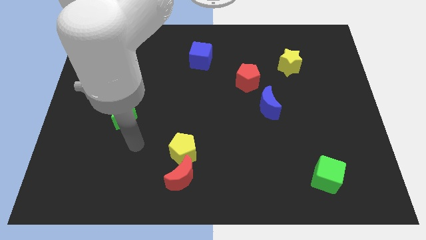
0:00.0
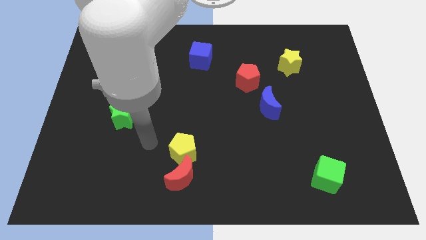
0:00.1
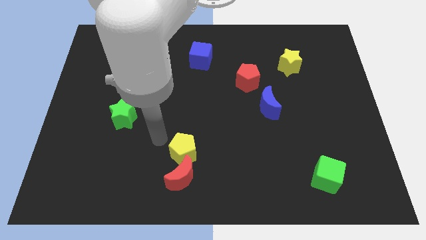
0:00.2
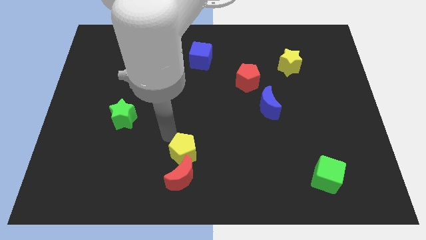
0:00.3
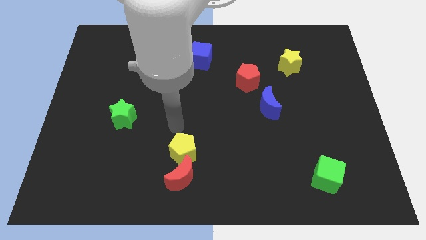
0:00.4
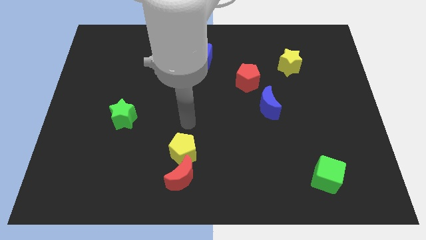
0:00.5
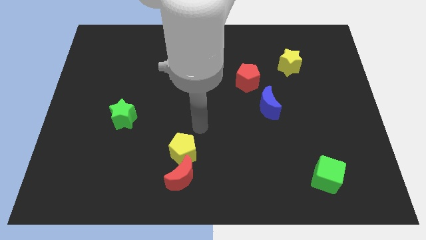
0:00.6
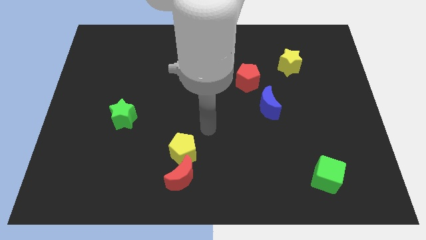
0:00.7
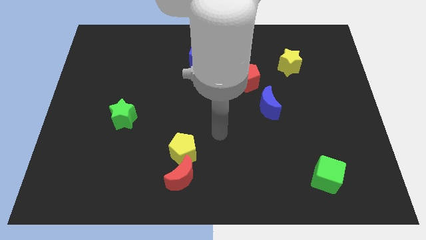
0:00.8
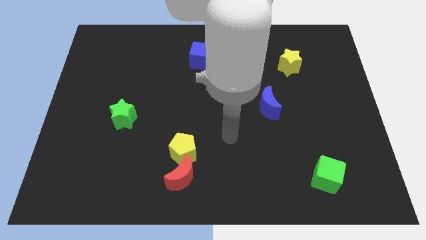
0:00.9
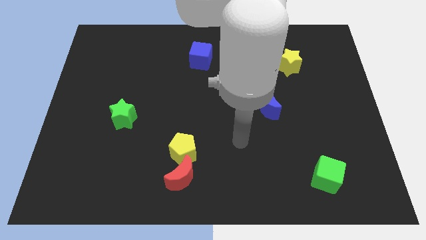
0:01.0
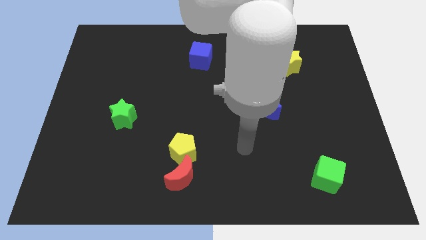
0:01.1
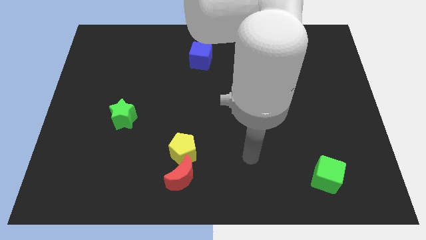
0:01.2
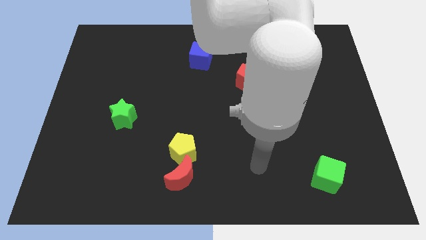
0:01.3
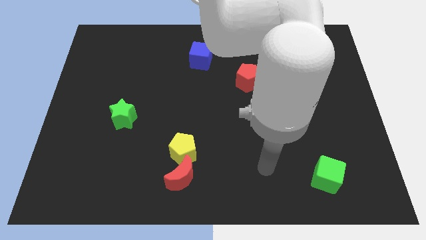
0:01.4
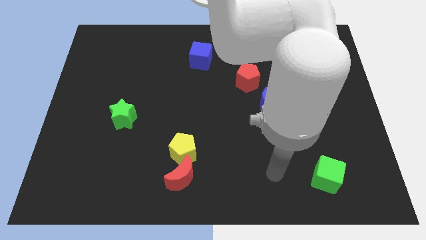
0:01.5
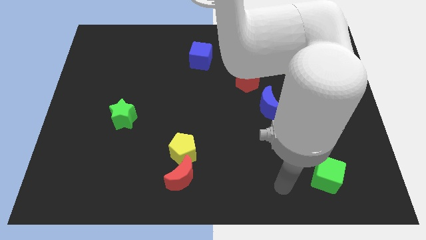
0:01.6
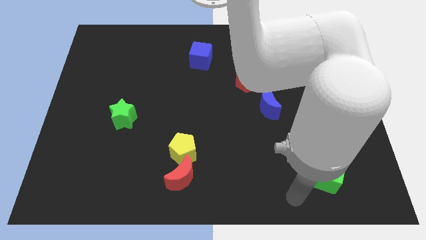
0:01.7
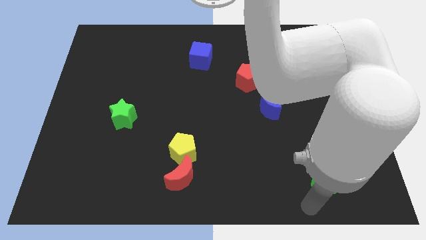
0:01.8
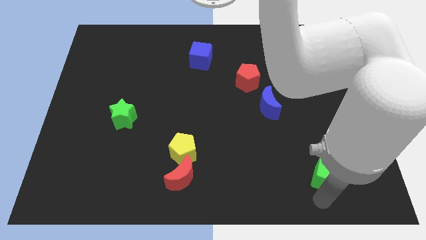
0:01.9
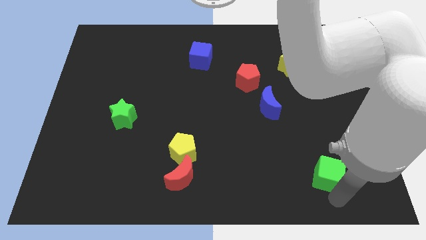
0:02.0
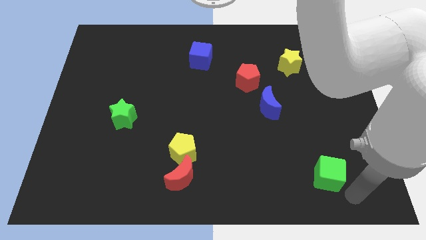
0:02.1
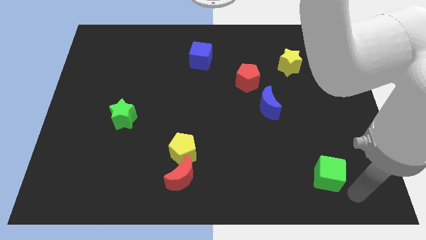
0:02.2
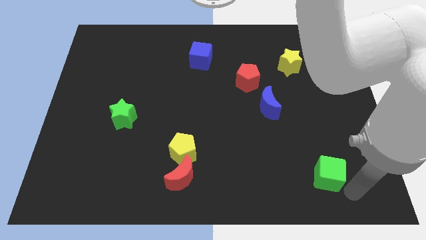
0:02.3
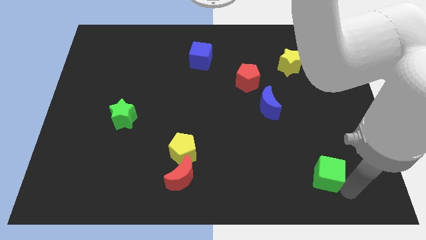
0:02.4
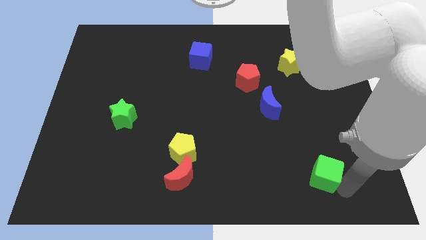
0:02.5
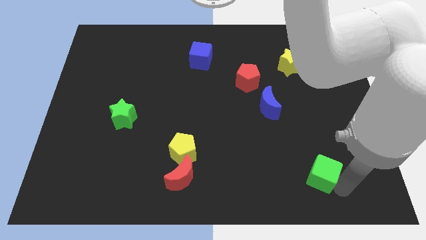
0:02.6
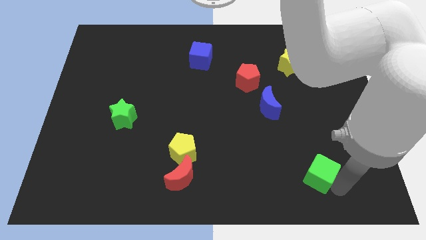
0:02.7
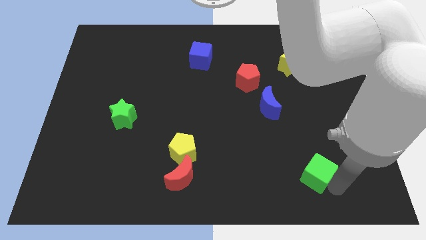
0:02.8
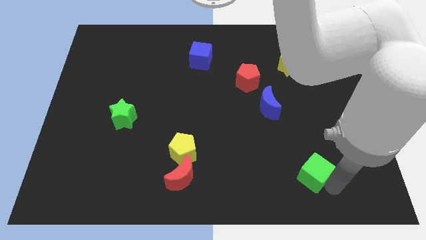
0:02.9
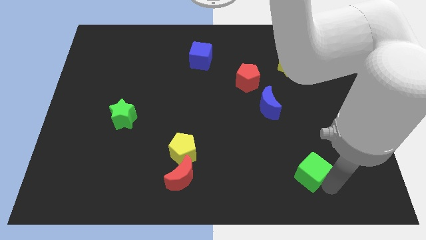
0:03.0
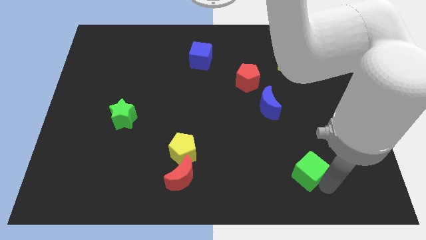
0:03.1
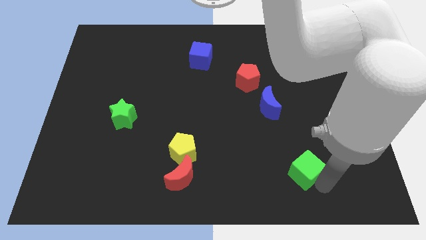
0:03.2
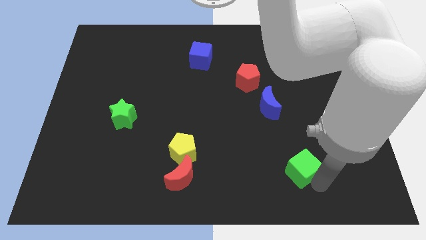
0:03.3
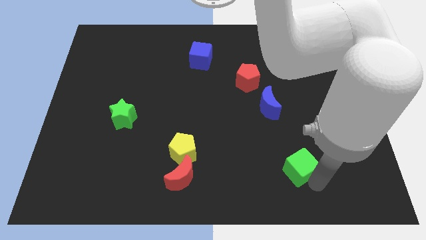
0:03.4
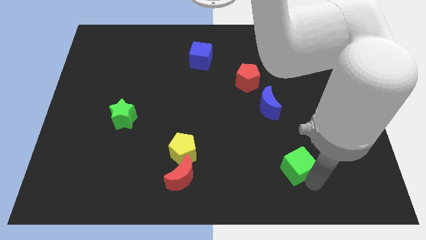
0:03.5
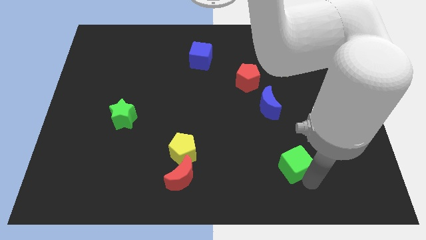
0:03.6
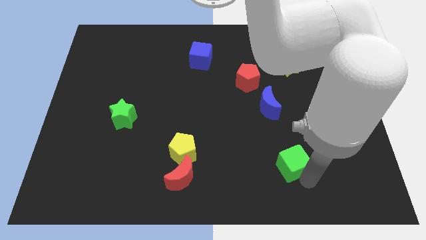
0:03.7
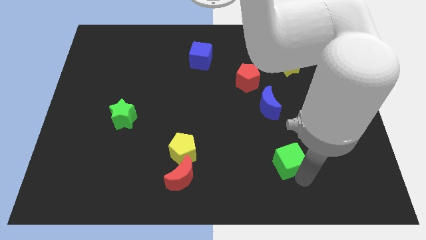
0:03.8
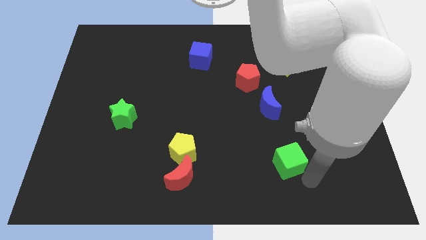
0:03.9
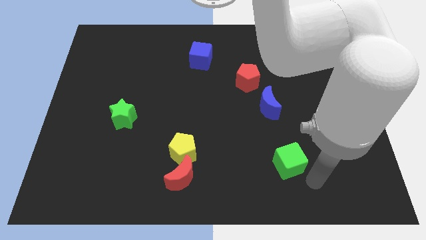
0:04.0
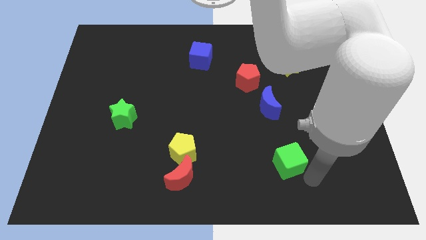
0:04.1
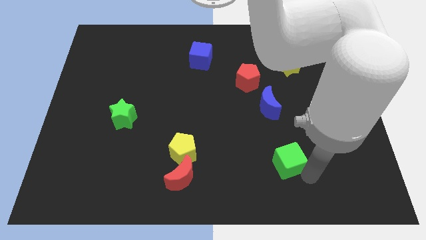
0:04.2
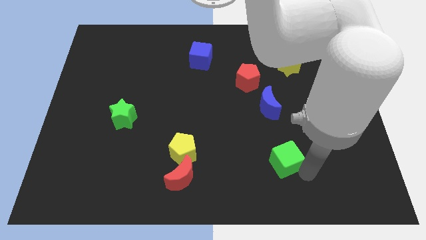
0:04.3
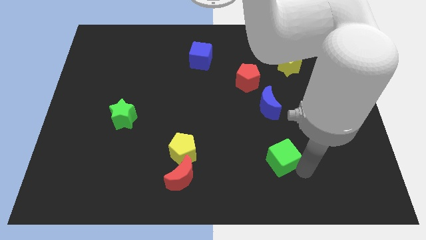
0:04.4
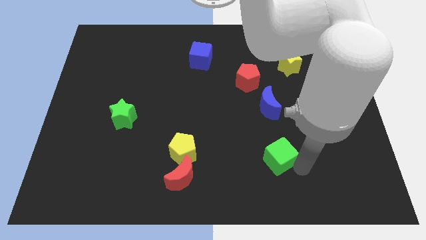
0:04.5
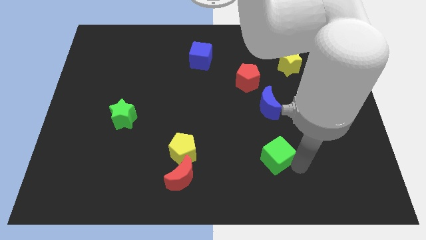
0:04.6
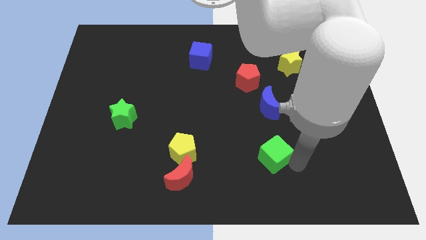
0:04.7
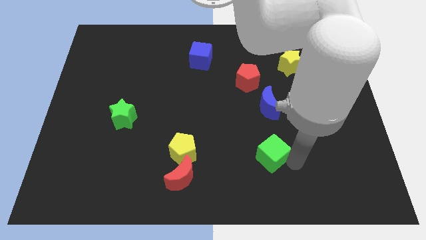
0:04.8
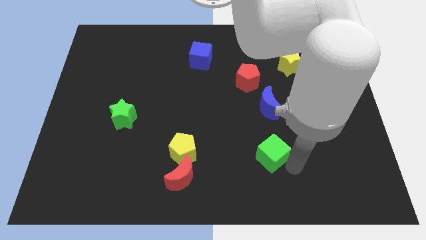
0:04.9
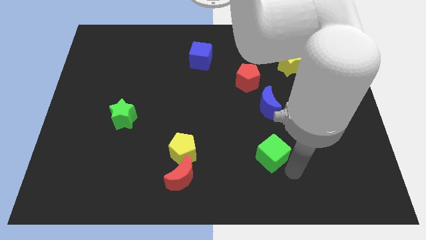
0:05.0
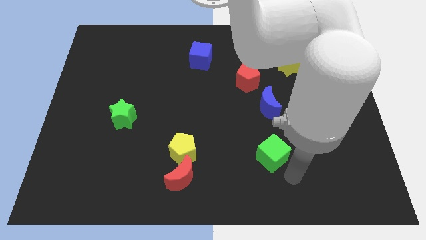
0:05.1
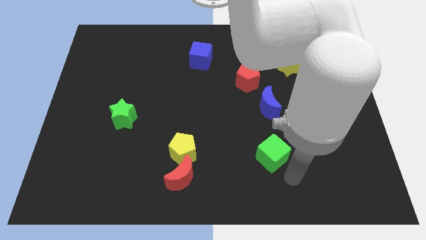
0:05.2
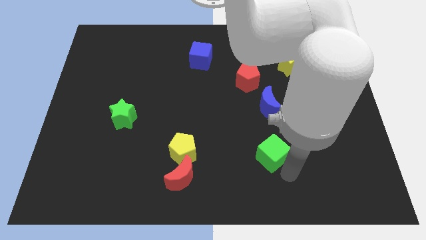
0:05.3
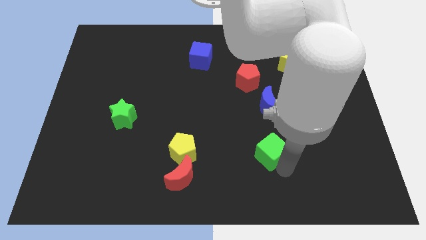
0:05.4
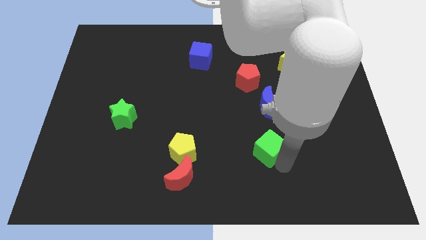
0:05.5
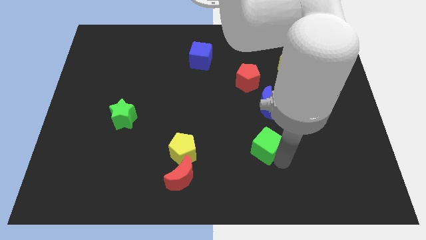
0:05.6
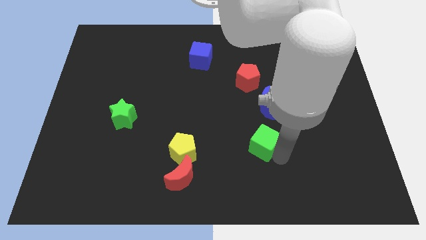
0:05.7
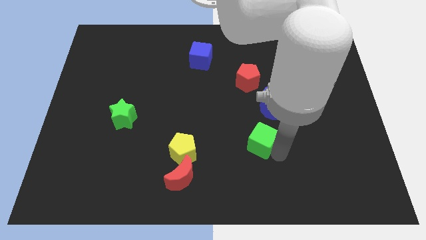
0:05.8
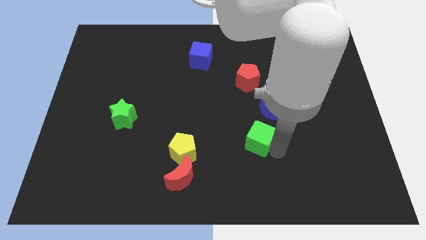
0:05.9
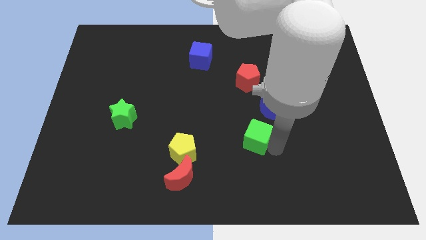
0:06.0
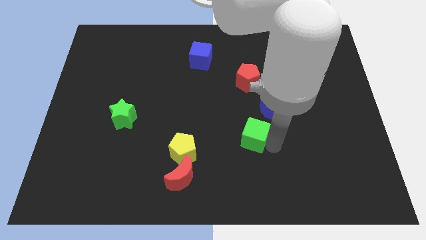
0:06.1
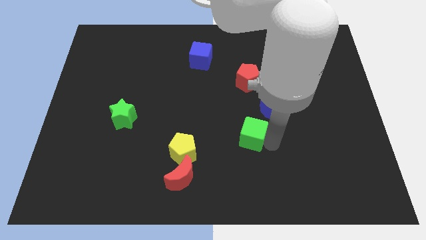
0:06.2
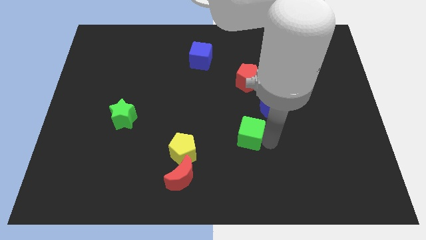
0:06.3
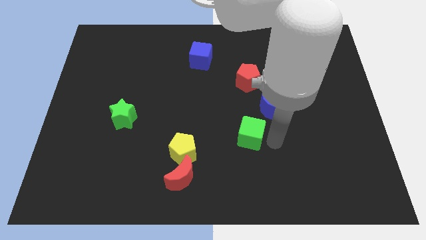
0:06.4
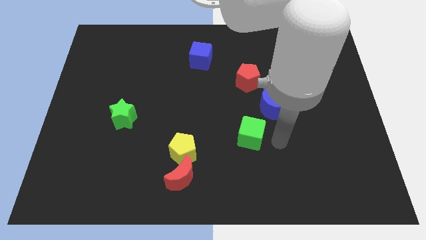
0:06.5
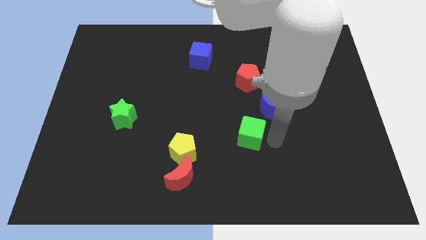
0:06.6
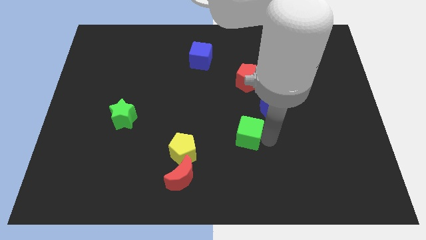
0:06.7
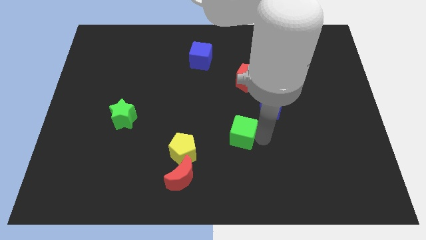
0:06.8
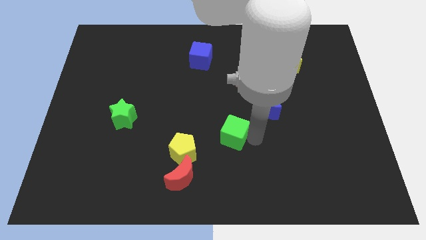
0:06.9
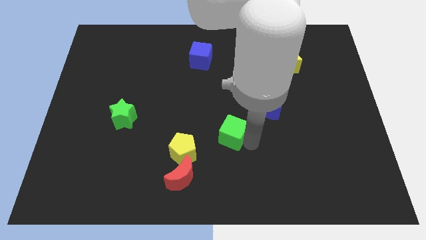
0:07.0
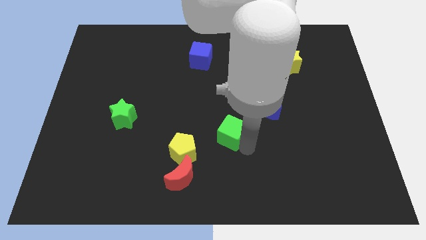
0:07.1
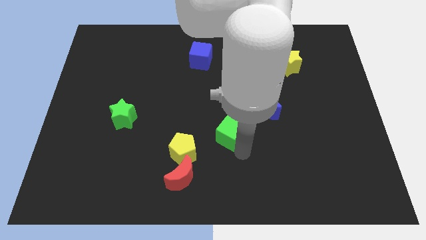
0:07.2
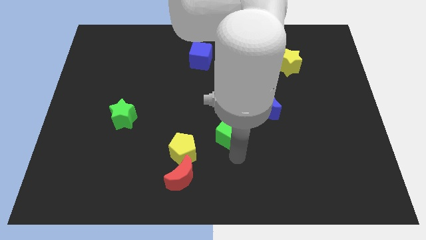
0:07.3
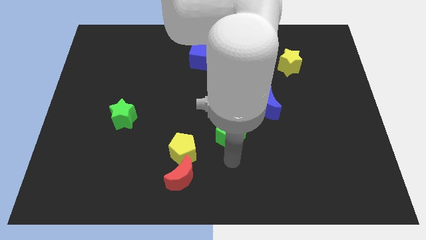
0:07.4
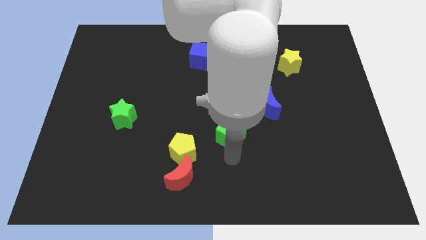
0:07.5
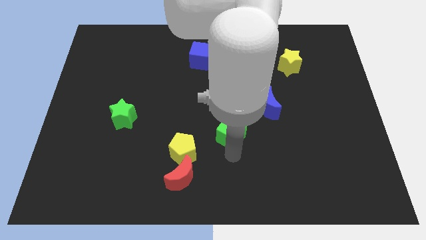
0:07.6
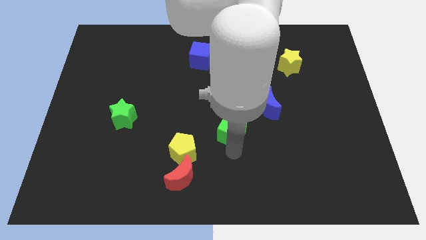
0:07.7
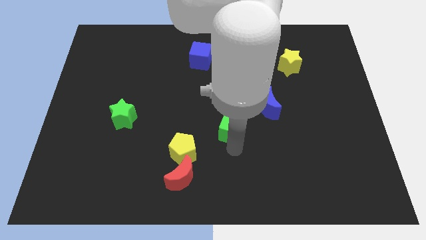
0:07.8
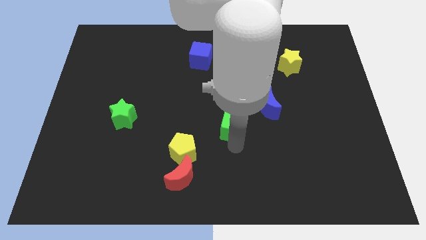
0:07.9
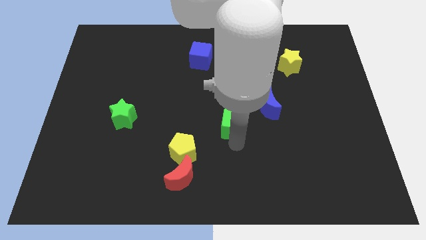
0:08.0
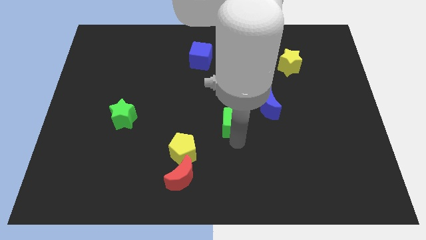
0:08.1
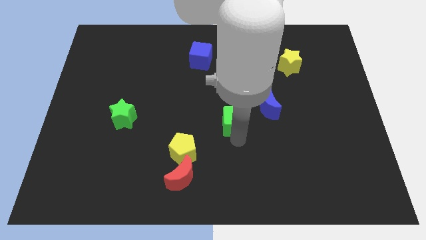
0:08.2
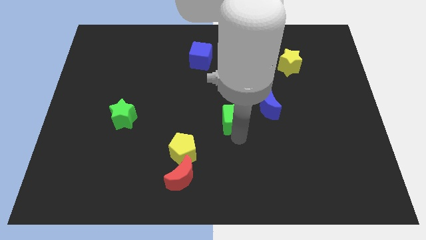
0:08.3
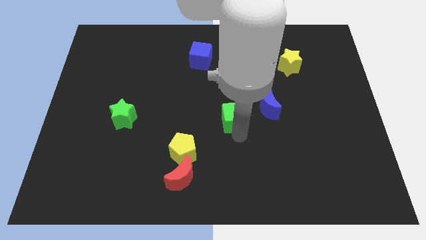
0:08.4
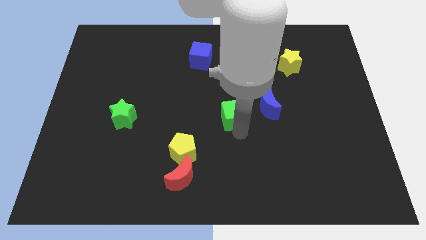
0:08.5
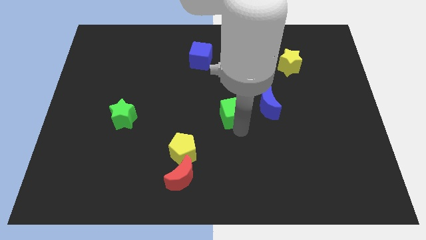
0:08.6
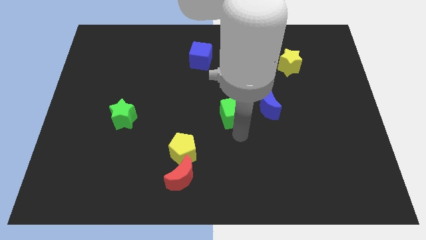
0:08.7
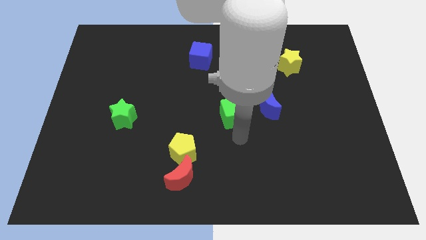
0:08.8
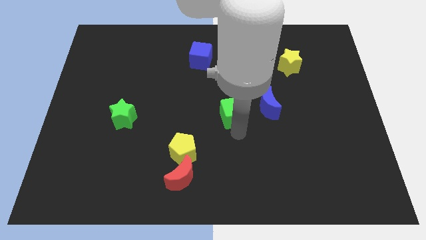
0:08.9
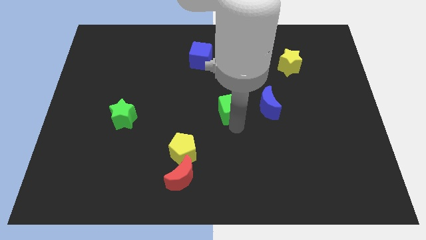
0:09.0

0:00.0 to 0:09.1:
put the green cube to the bottom left side of the red pentagon
